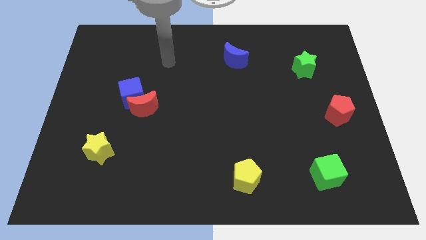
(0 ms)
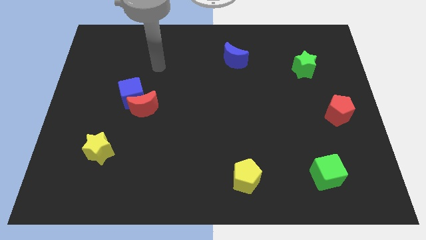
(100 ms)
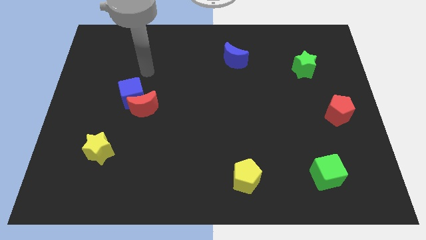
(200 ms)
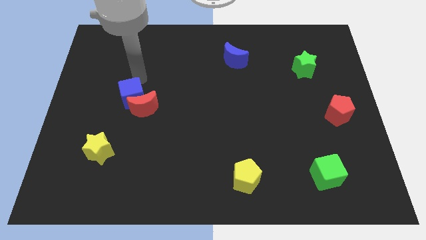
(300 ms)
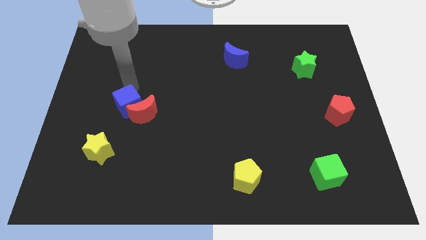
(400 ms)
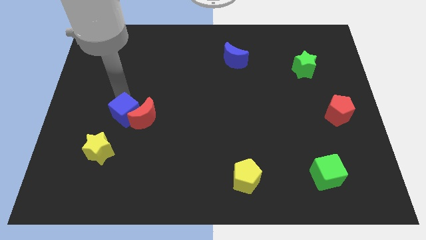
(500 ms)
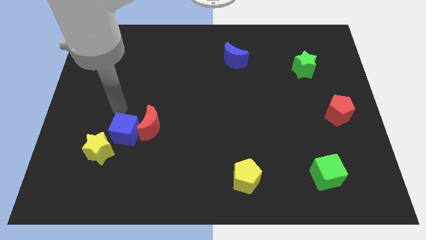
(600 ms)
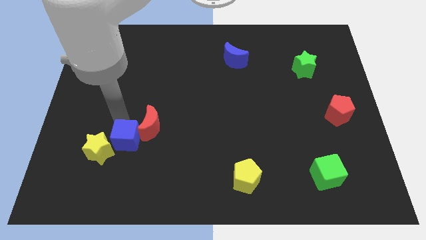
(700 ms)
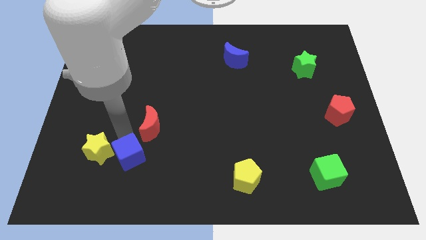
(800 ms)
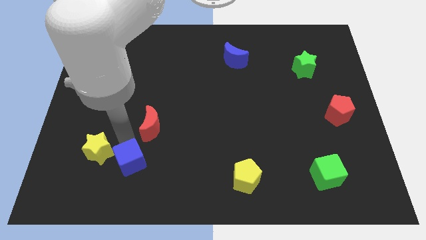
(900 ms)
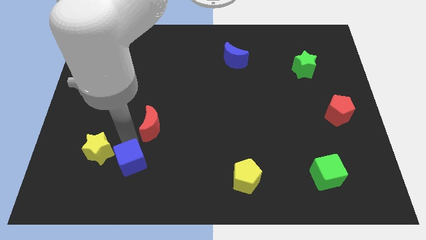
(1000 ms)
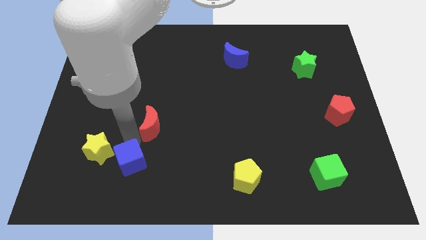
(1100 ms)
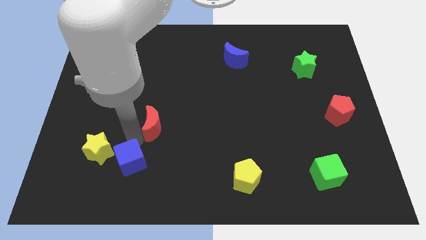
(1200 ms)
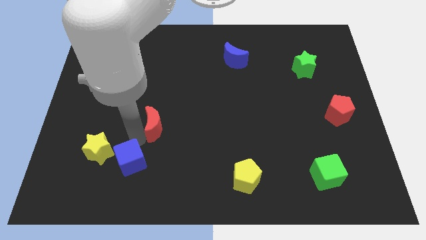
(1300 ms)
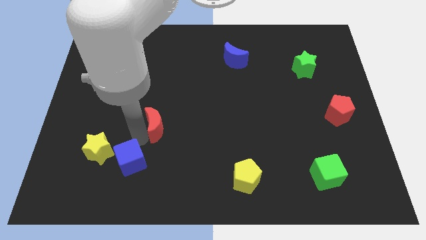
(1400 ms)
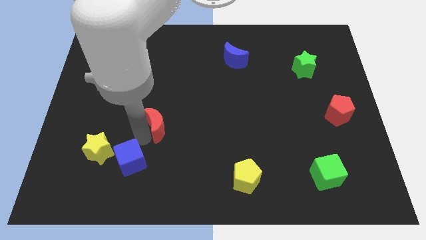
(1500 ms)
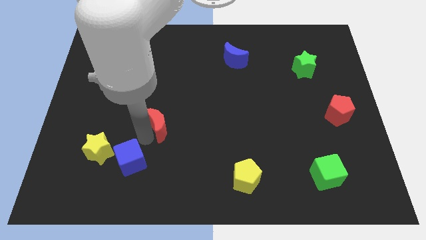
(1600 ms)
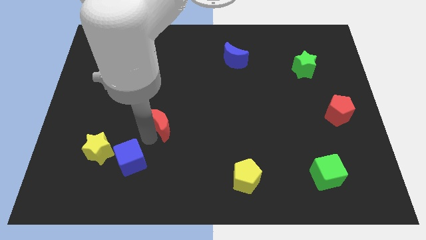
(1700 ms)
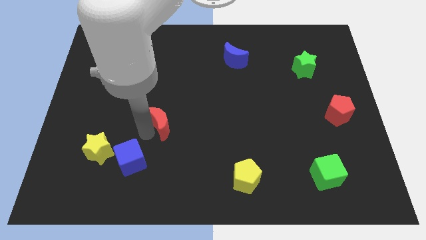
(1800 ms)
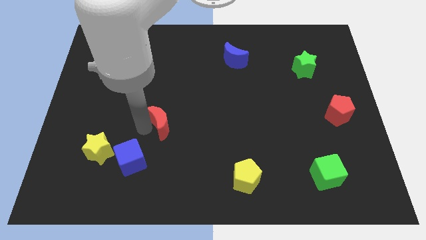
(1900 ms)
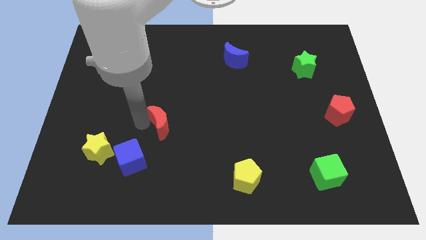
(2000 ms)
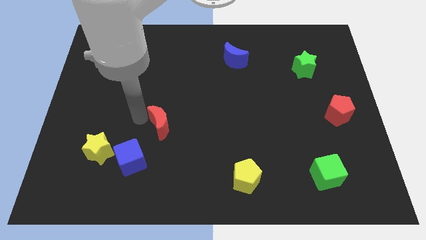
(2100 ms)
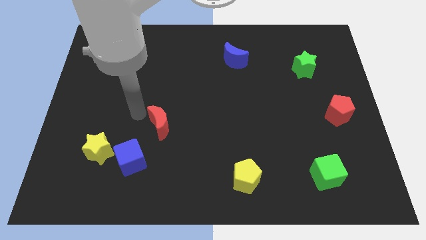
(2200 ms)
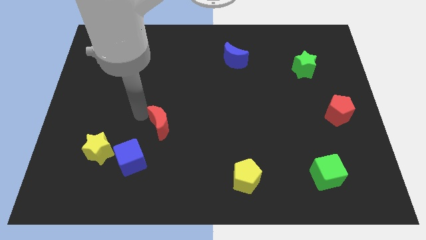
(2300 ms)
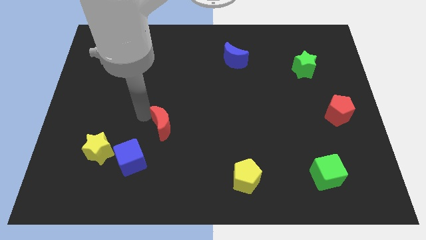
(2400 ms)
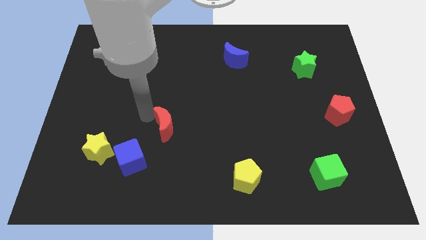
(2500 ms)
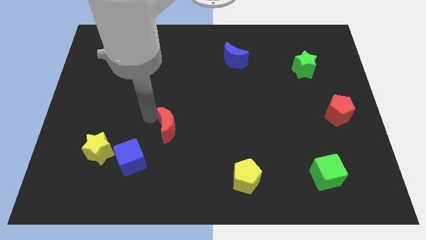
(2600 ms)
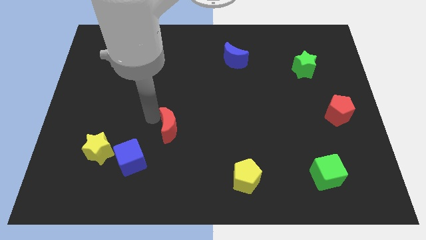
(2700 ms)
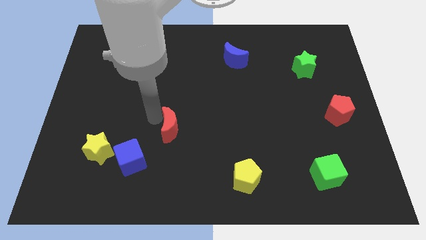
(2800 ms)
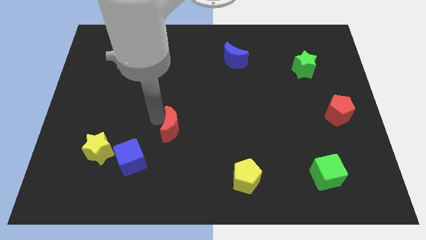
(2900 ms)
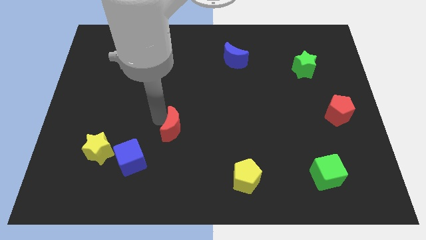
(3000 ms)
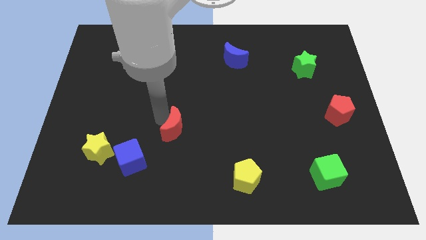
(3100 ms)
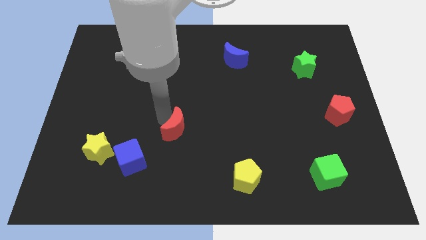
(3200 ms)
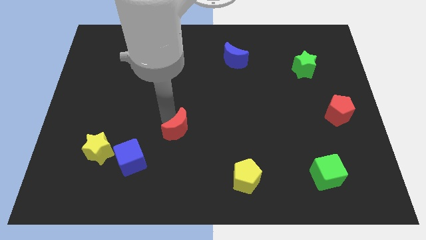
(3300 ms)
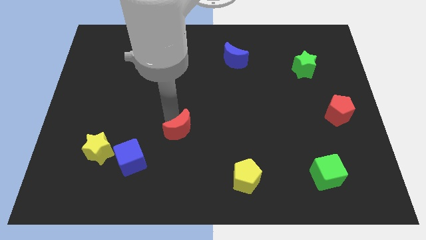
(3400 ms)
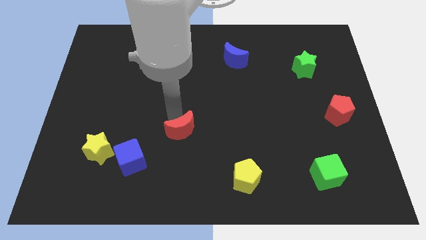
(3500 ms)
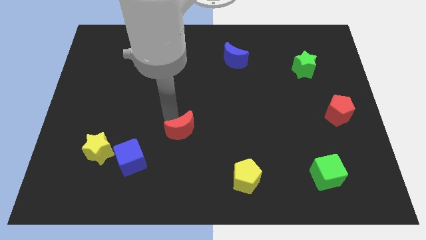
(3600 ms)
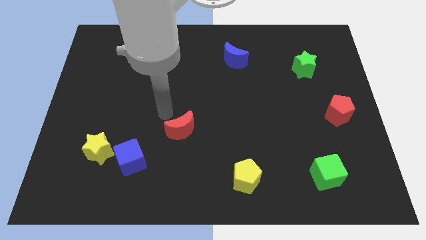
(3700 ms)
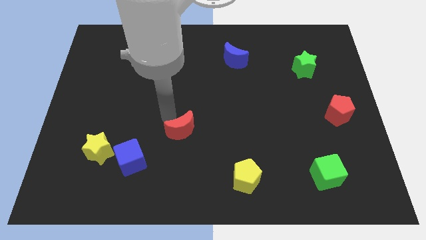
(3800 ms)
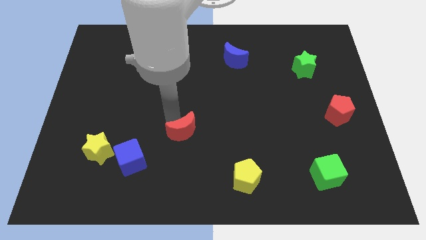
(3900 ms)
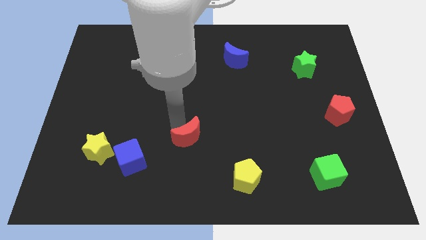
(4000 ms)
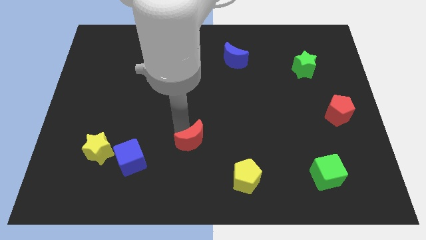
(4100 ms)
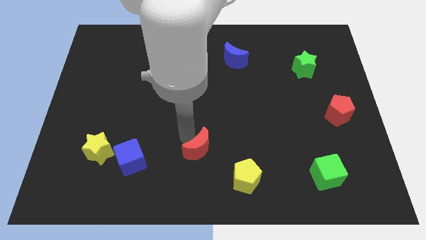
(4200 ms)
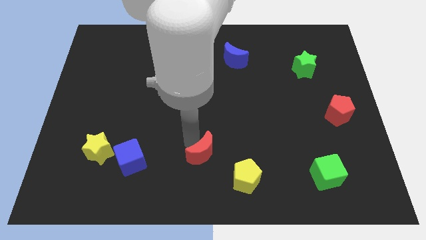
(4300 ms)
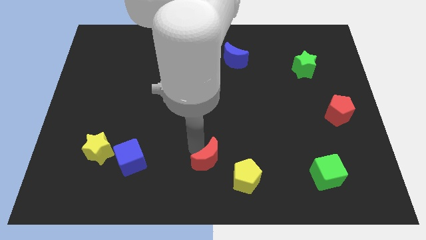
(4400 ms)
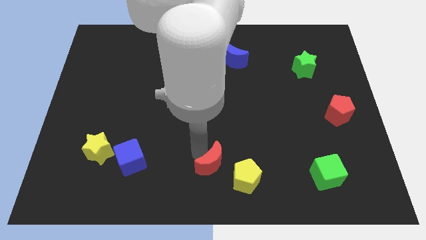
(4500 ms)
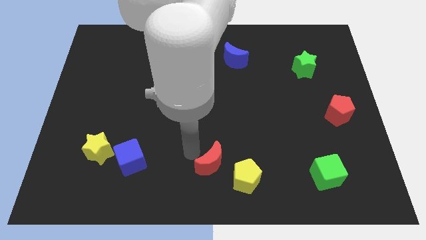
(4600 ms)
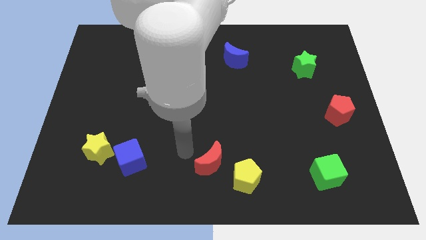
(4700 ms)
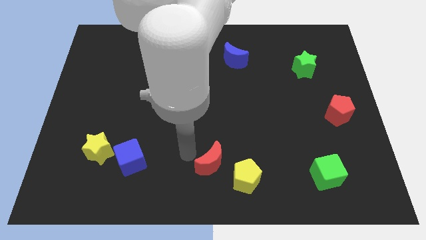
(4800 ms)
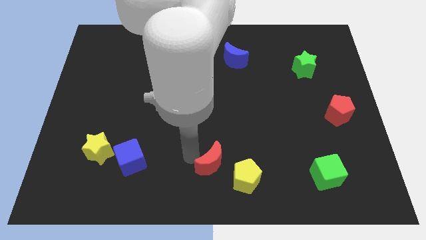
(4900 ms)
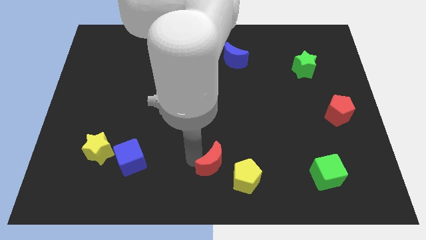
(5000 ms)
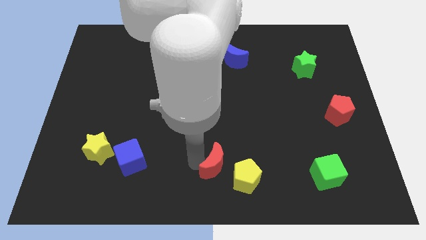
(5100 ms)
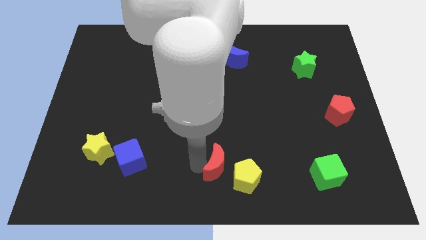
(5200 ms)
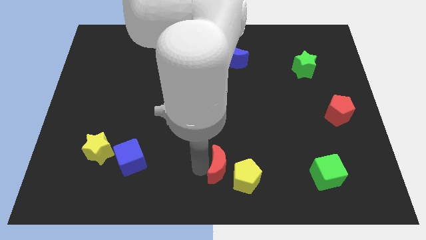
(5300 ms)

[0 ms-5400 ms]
push the red moon close to the yellow pentagon

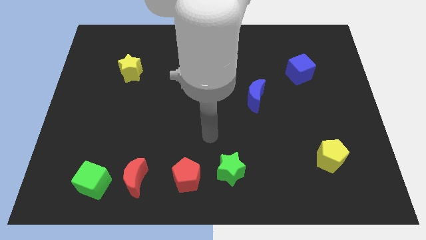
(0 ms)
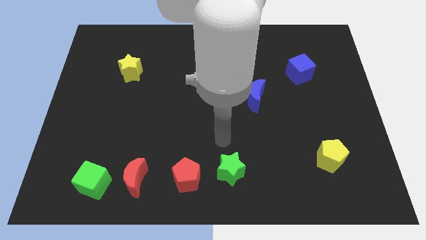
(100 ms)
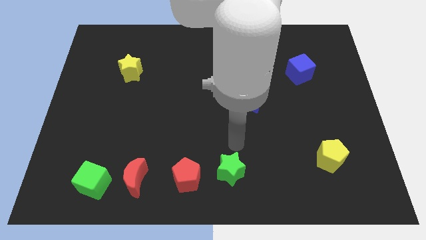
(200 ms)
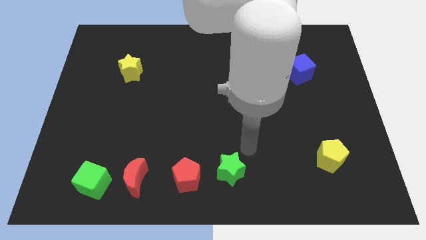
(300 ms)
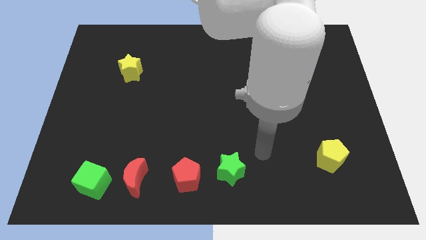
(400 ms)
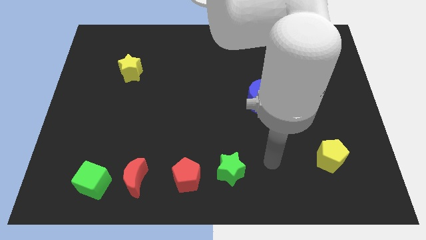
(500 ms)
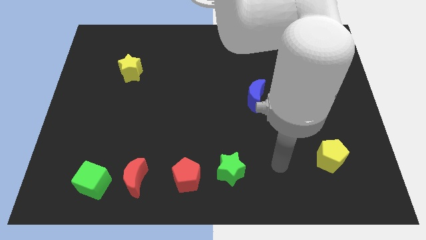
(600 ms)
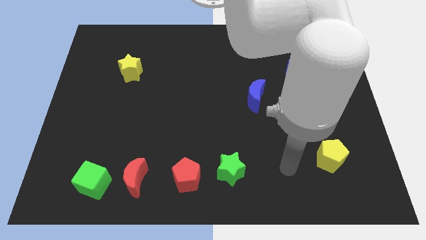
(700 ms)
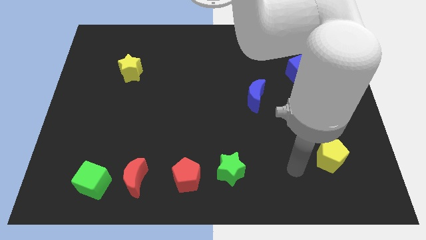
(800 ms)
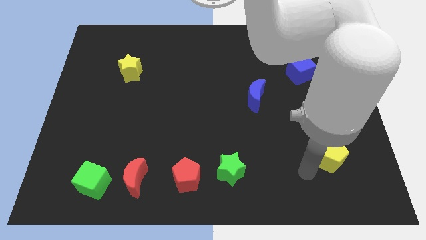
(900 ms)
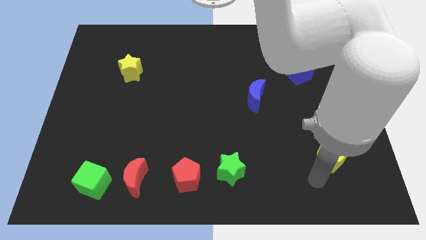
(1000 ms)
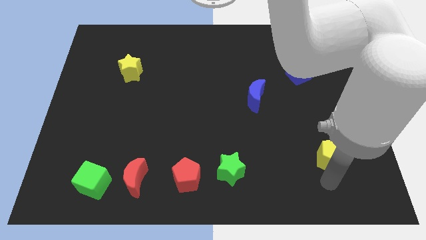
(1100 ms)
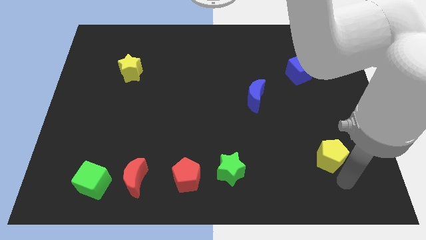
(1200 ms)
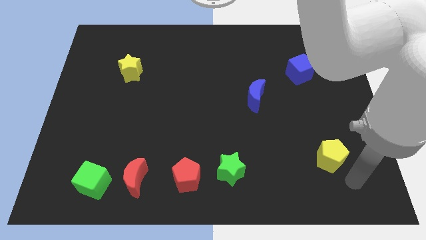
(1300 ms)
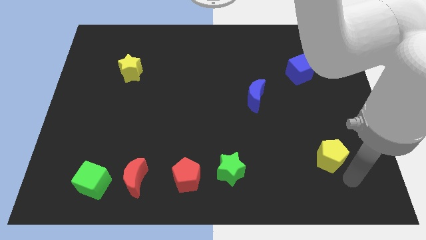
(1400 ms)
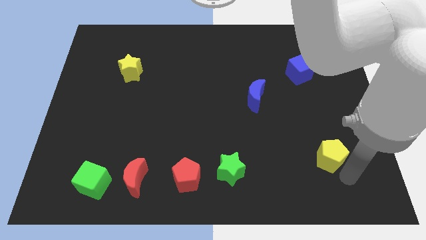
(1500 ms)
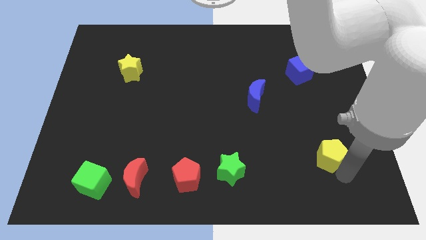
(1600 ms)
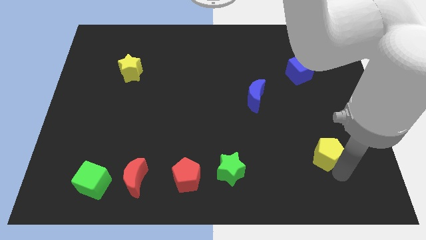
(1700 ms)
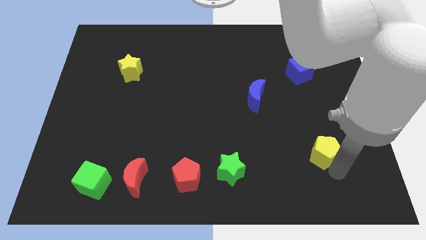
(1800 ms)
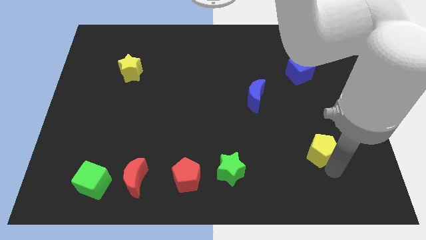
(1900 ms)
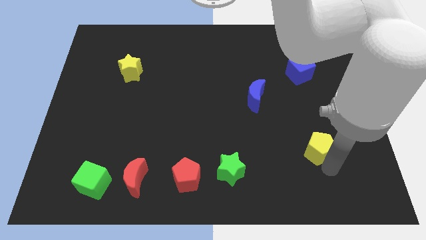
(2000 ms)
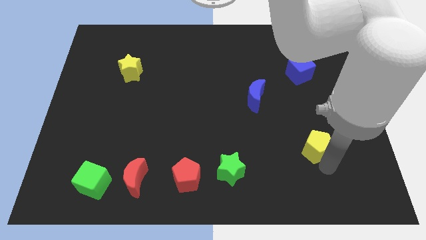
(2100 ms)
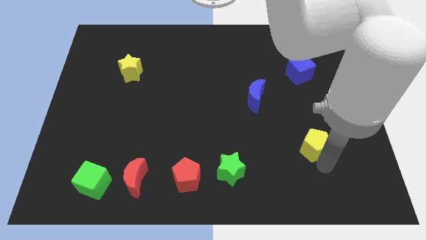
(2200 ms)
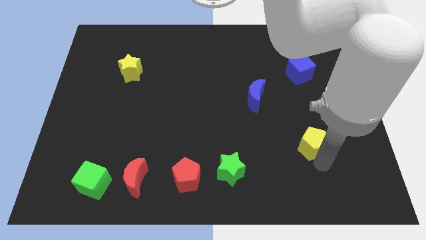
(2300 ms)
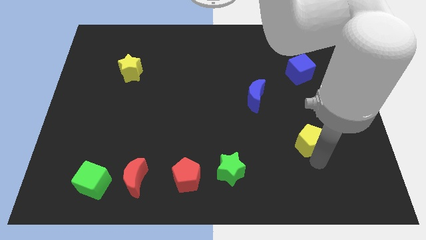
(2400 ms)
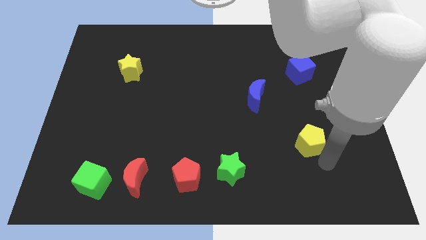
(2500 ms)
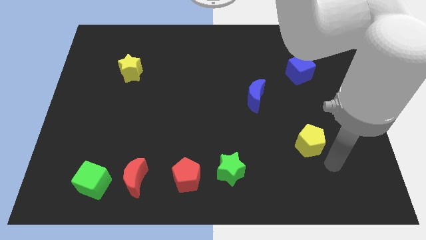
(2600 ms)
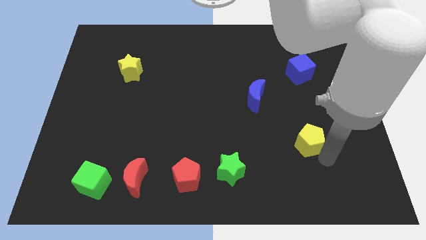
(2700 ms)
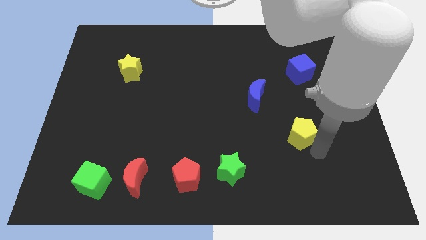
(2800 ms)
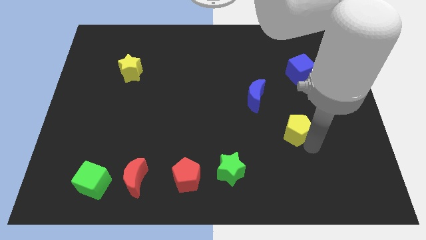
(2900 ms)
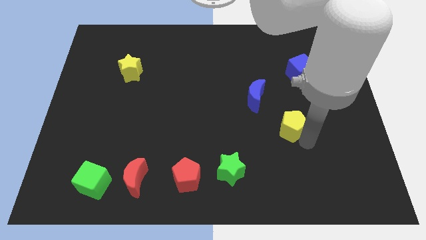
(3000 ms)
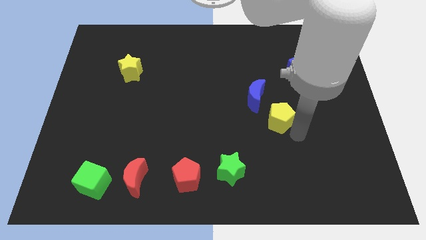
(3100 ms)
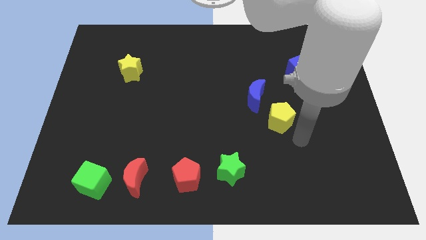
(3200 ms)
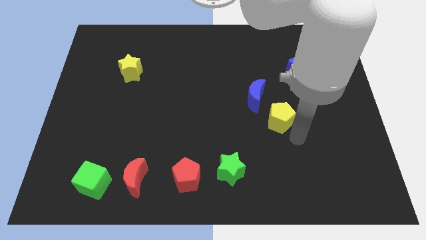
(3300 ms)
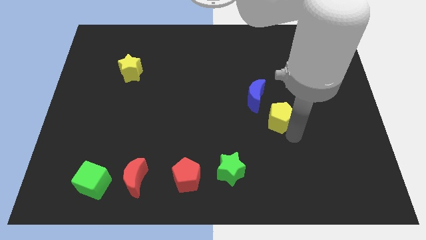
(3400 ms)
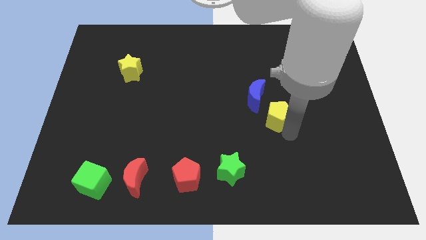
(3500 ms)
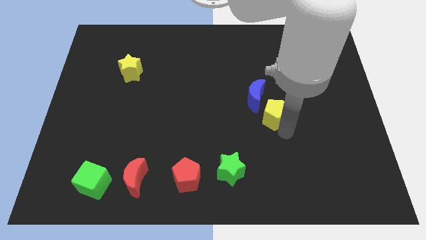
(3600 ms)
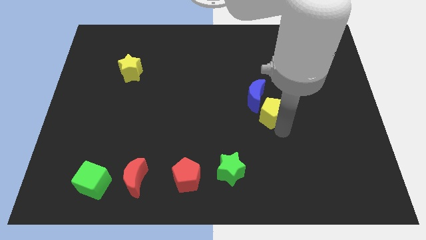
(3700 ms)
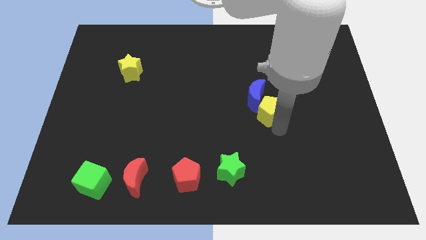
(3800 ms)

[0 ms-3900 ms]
move the yellow pentagon close to the blue moon
